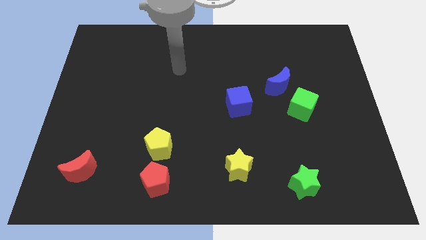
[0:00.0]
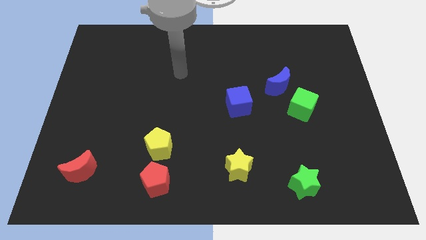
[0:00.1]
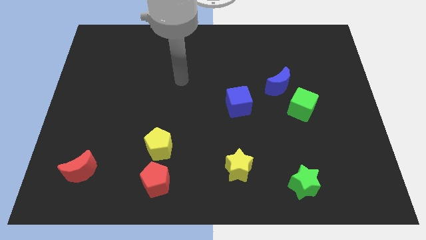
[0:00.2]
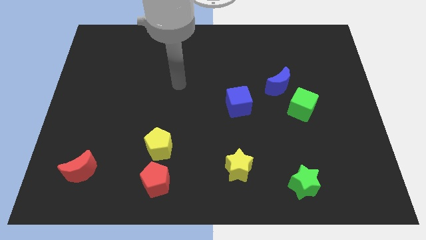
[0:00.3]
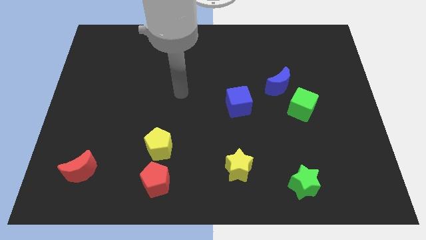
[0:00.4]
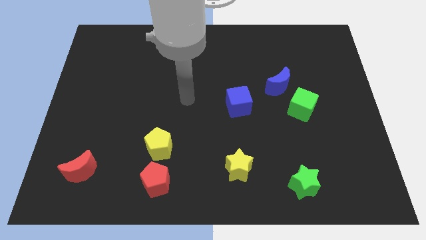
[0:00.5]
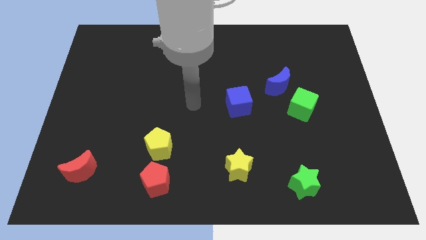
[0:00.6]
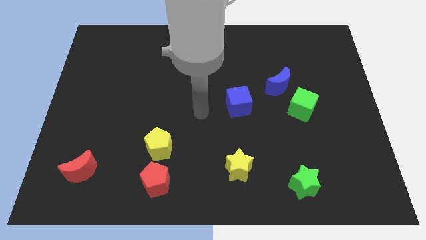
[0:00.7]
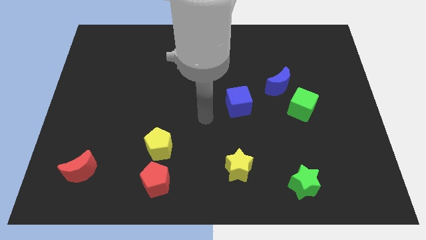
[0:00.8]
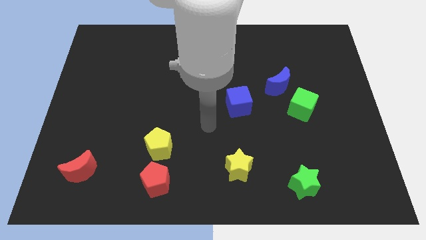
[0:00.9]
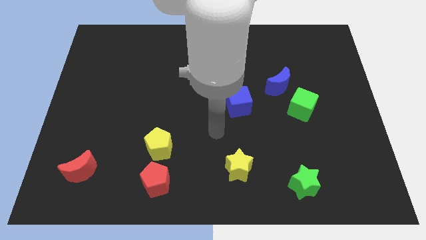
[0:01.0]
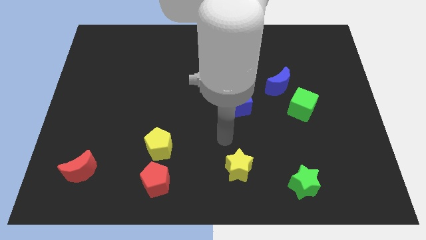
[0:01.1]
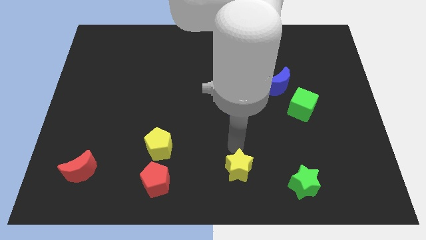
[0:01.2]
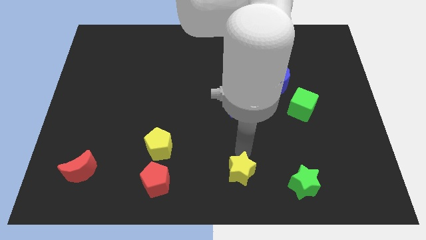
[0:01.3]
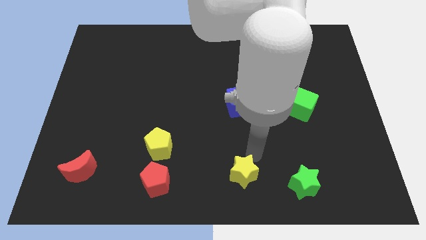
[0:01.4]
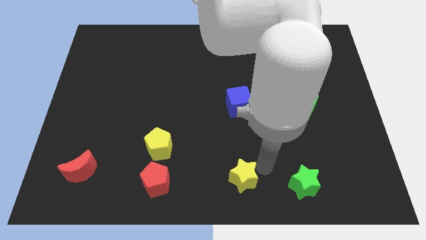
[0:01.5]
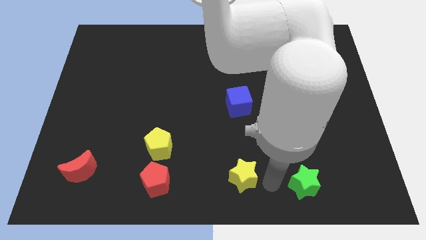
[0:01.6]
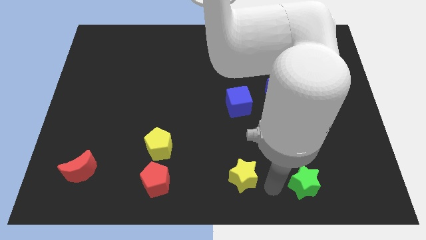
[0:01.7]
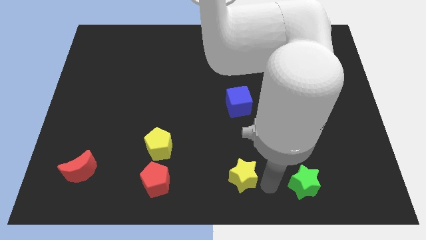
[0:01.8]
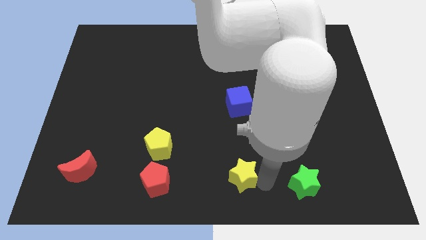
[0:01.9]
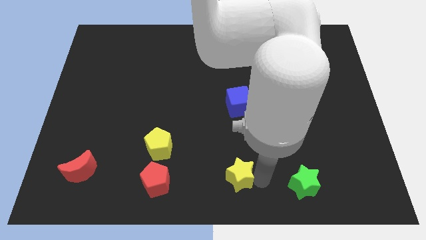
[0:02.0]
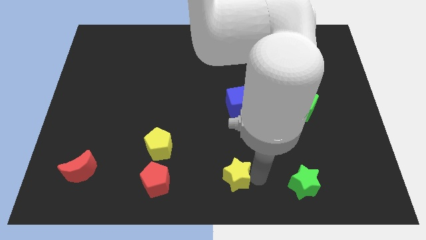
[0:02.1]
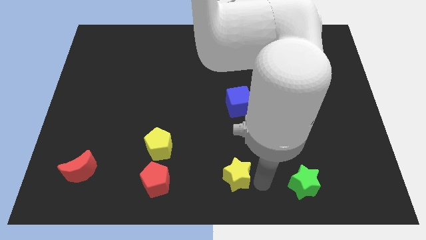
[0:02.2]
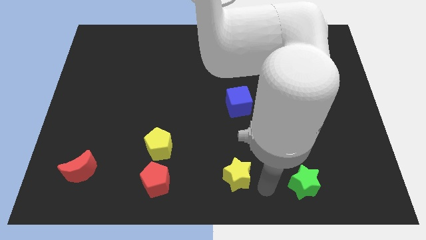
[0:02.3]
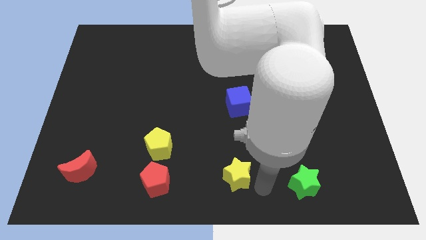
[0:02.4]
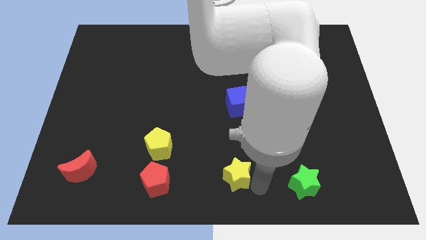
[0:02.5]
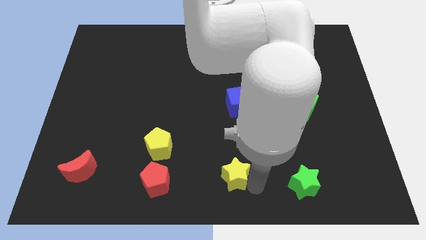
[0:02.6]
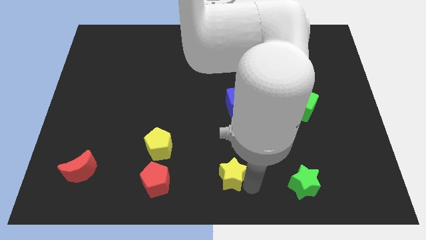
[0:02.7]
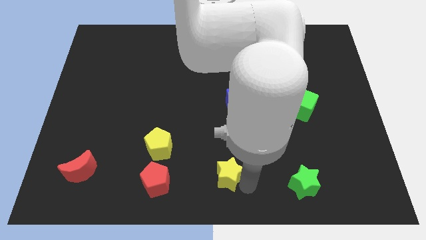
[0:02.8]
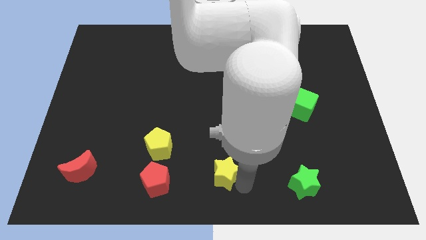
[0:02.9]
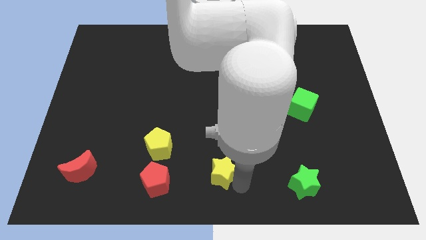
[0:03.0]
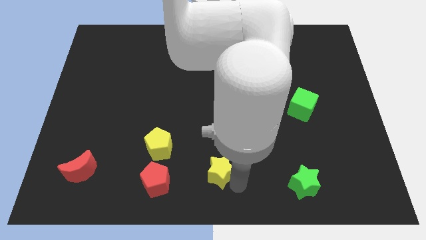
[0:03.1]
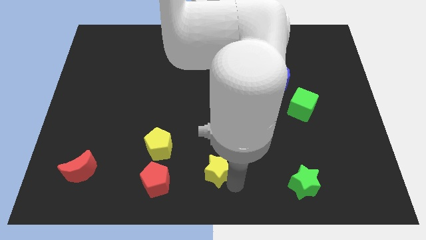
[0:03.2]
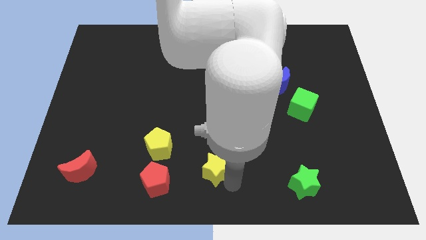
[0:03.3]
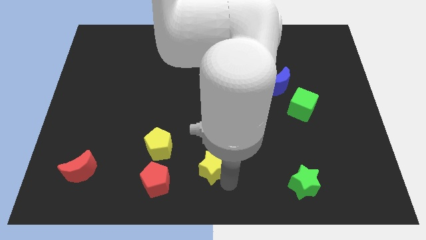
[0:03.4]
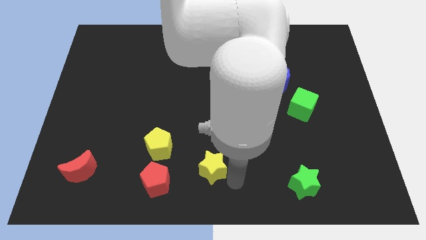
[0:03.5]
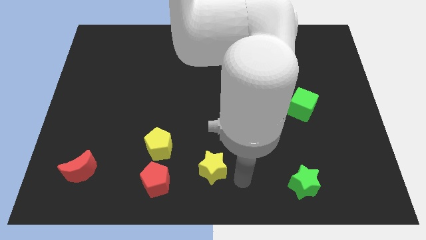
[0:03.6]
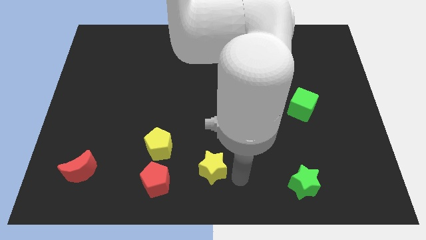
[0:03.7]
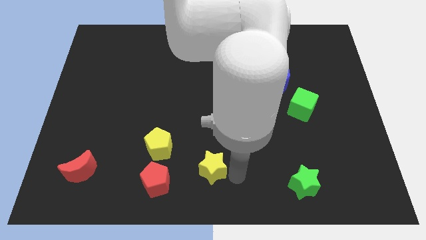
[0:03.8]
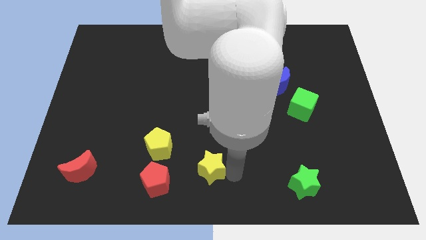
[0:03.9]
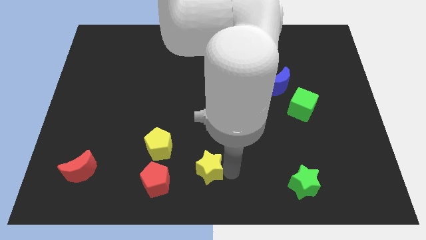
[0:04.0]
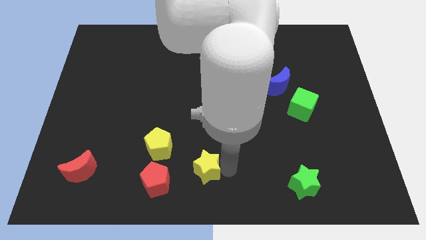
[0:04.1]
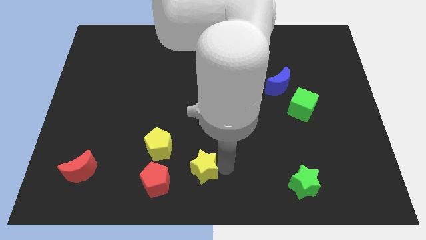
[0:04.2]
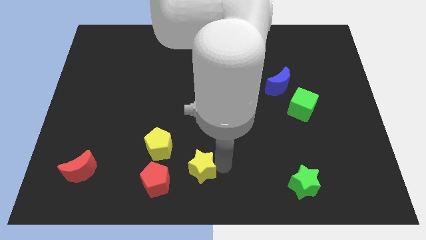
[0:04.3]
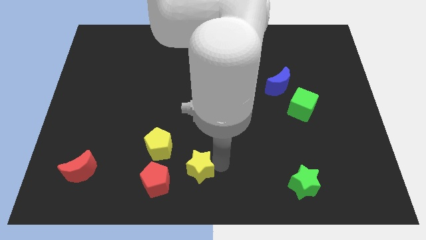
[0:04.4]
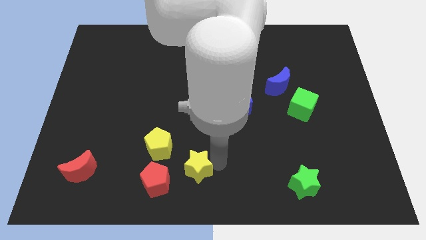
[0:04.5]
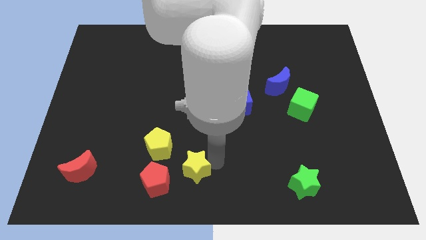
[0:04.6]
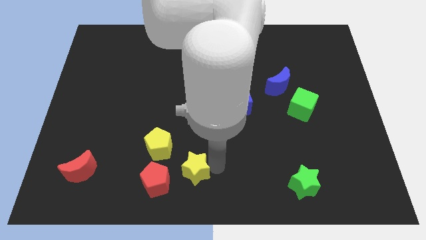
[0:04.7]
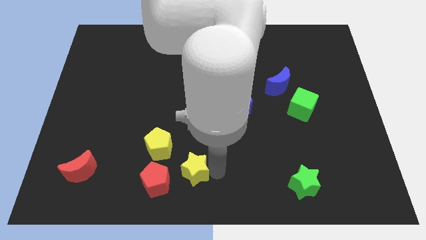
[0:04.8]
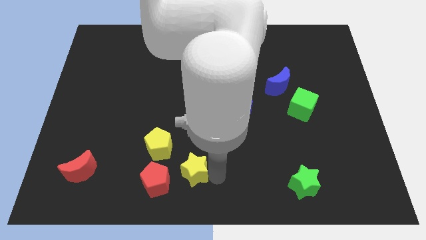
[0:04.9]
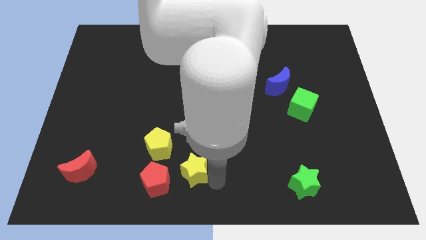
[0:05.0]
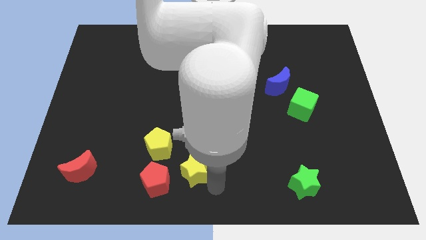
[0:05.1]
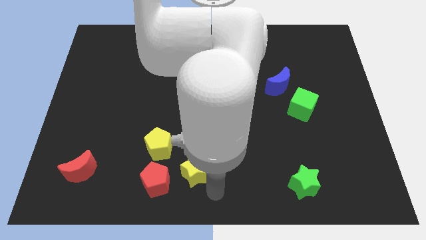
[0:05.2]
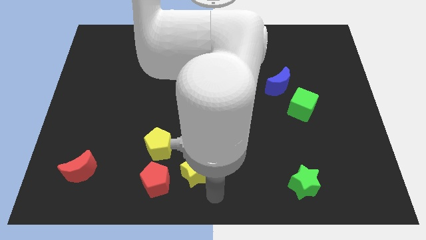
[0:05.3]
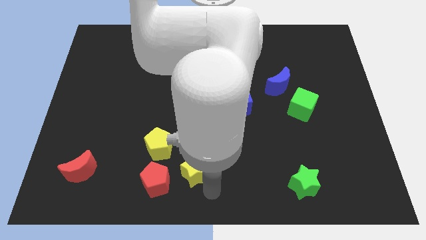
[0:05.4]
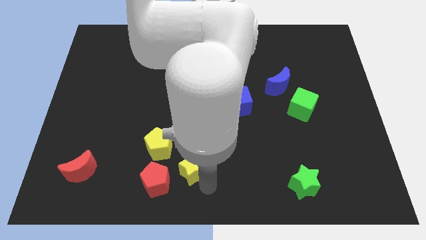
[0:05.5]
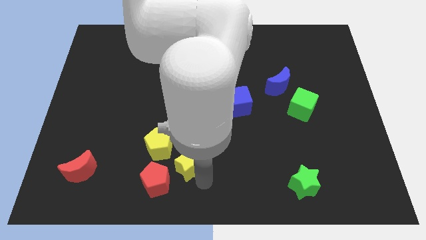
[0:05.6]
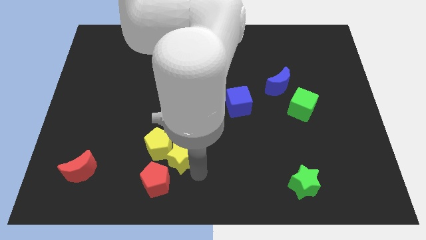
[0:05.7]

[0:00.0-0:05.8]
push the yellow star next to the yellow pentagon

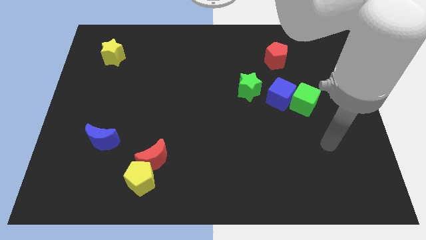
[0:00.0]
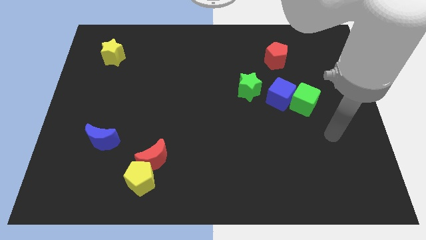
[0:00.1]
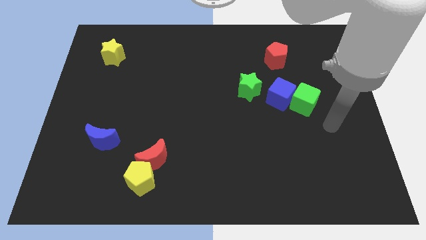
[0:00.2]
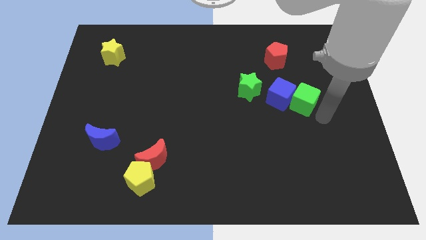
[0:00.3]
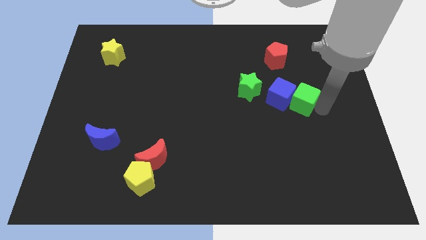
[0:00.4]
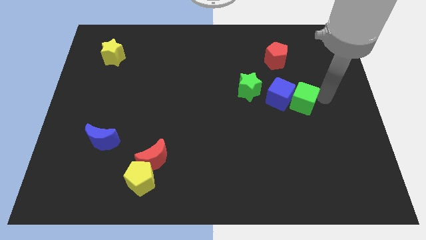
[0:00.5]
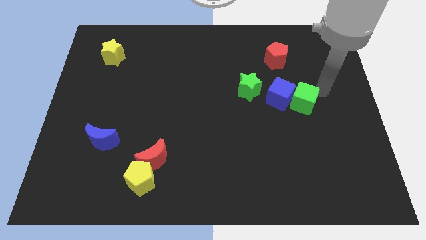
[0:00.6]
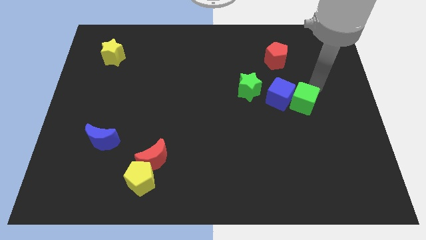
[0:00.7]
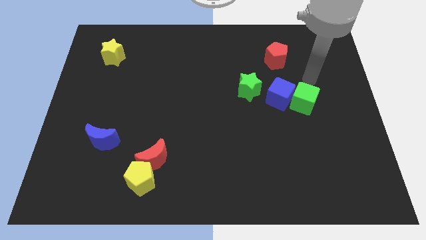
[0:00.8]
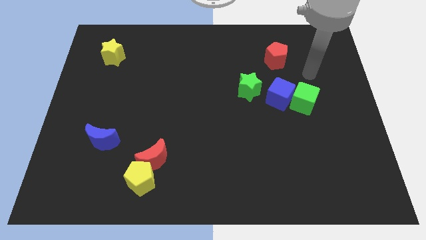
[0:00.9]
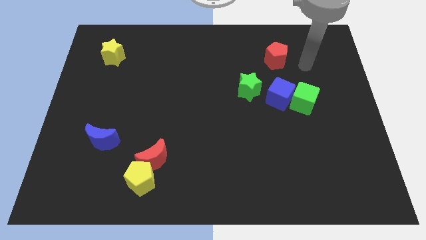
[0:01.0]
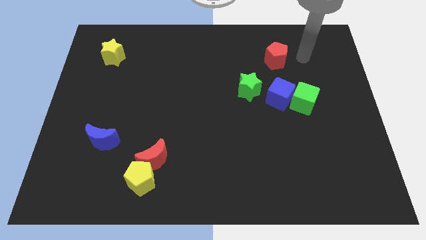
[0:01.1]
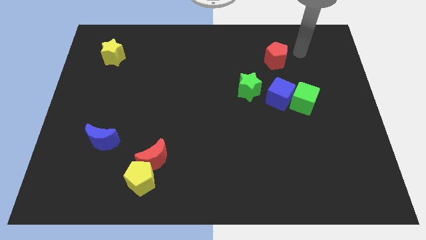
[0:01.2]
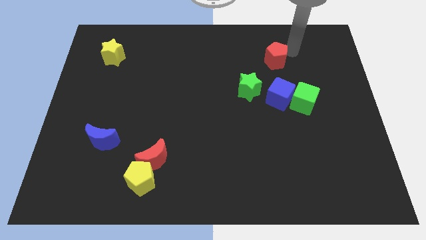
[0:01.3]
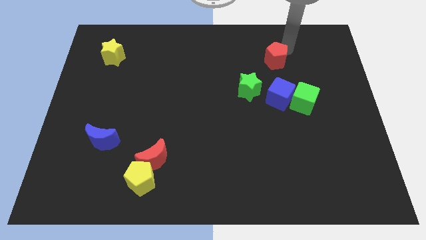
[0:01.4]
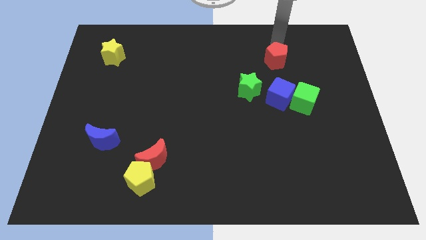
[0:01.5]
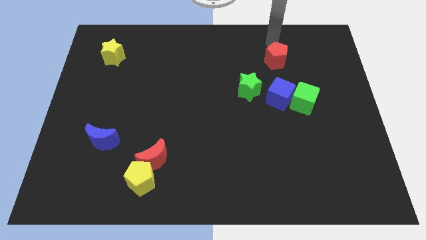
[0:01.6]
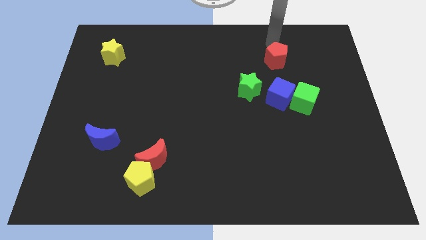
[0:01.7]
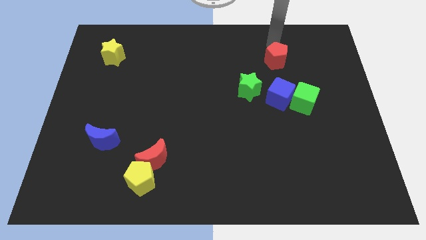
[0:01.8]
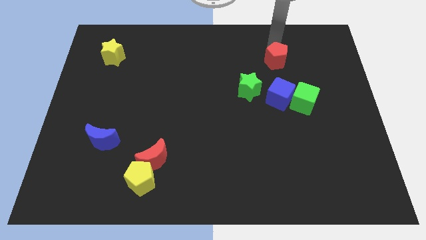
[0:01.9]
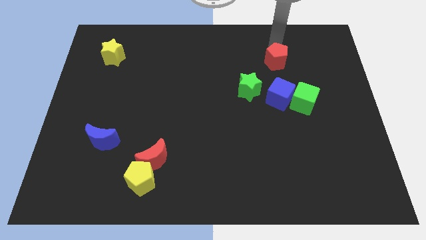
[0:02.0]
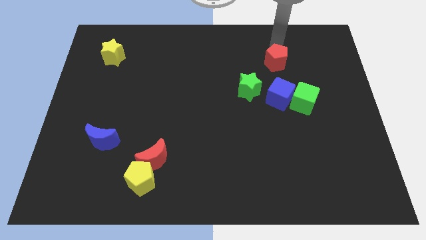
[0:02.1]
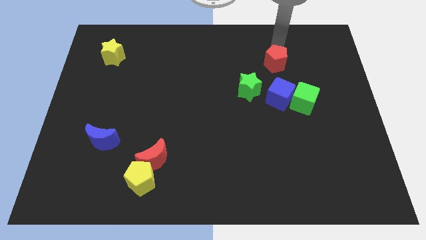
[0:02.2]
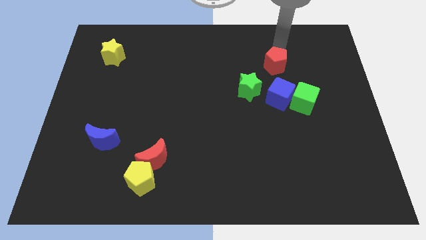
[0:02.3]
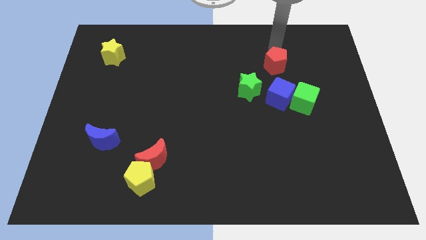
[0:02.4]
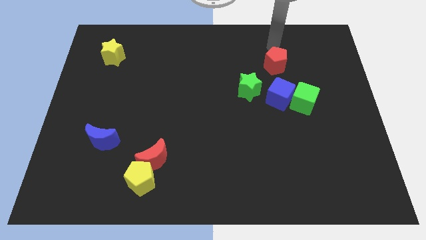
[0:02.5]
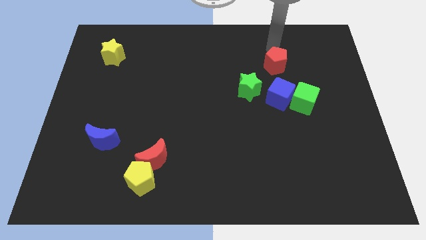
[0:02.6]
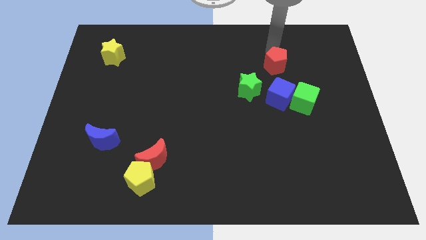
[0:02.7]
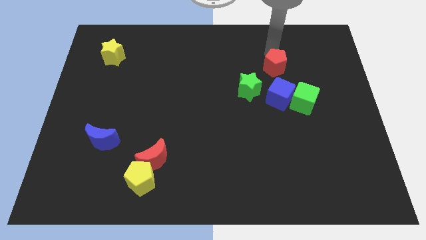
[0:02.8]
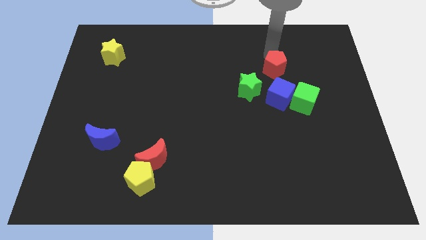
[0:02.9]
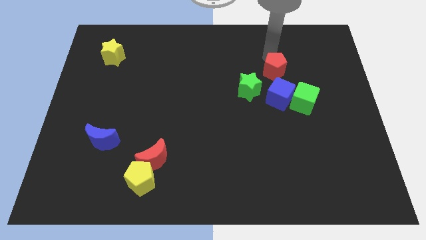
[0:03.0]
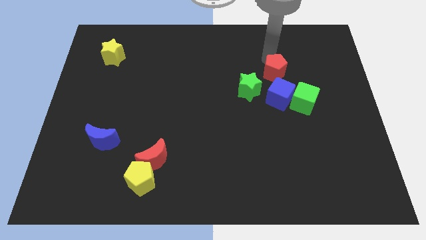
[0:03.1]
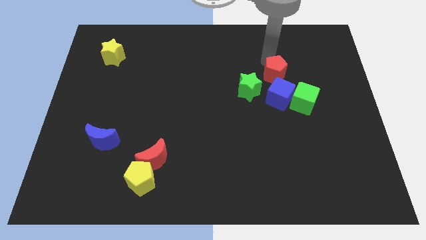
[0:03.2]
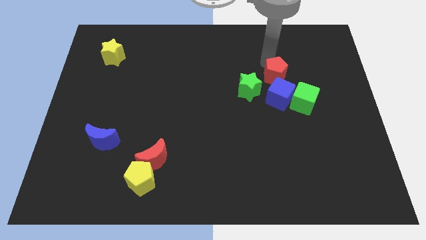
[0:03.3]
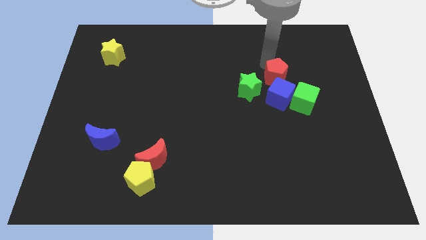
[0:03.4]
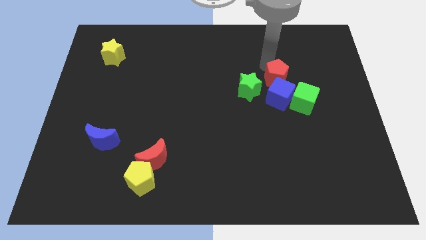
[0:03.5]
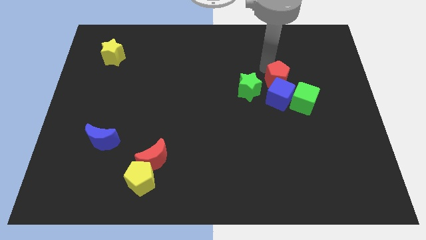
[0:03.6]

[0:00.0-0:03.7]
move the red pentagon towards the blue cube
